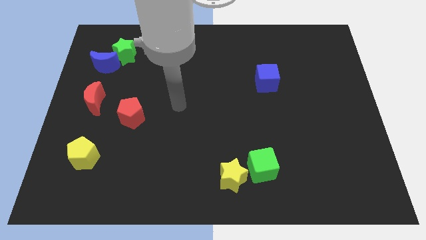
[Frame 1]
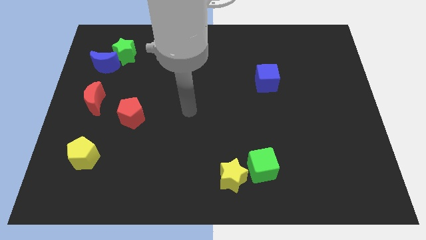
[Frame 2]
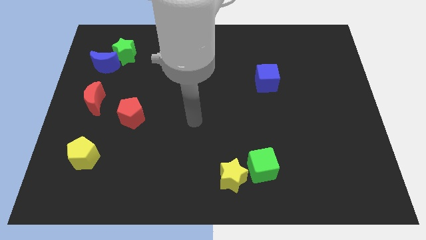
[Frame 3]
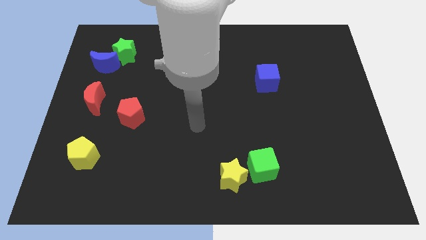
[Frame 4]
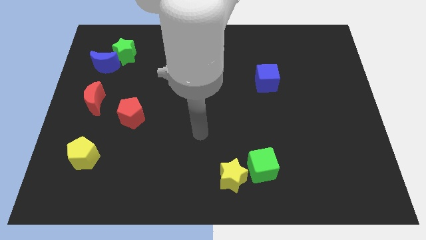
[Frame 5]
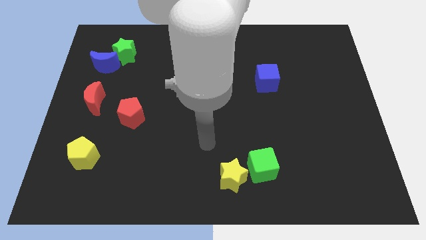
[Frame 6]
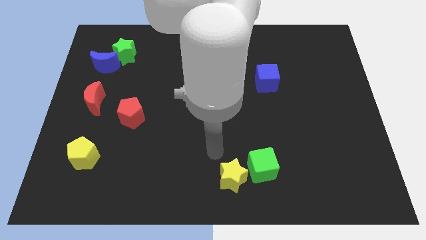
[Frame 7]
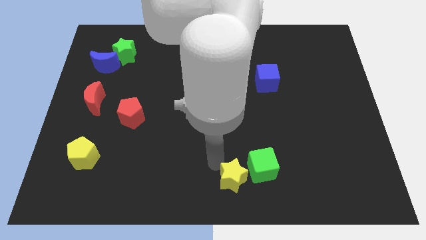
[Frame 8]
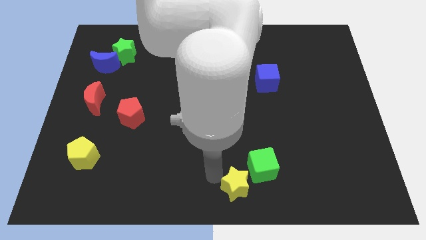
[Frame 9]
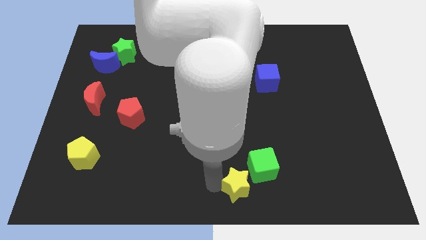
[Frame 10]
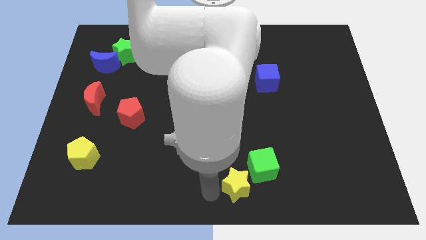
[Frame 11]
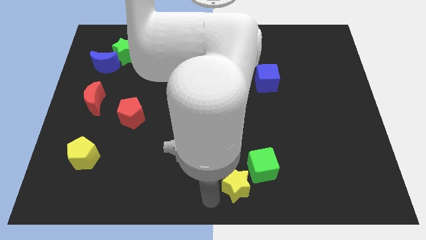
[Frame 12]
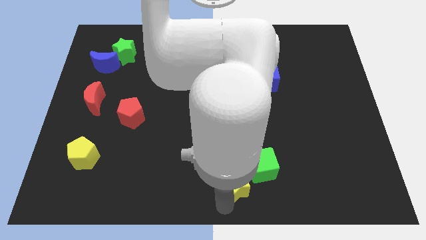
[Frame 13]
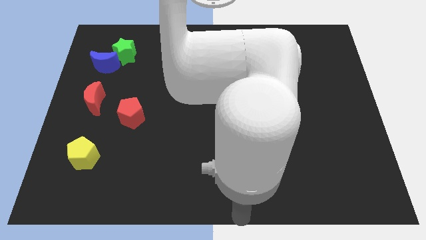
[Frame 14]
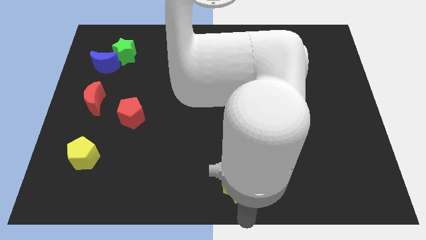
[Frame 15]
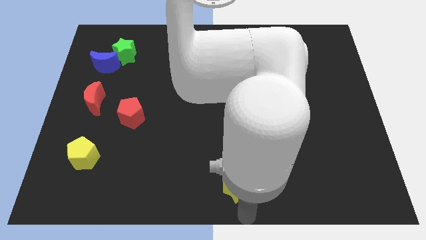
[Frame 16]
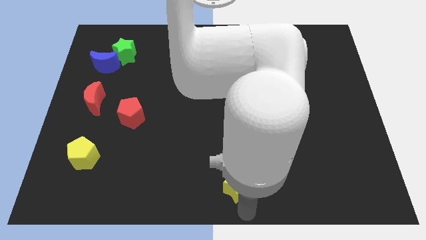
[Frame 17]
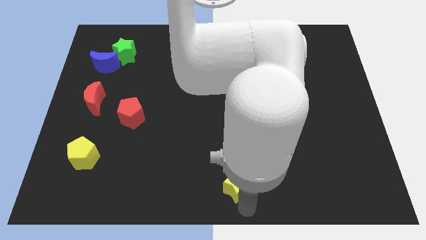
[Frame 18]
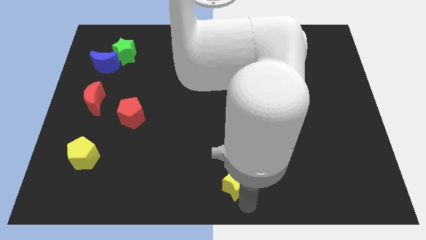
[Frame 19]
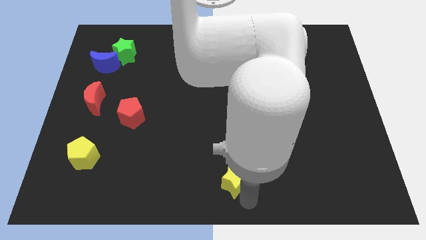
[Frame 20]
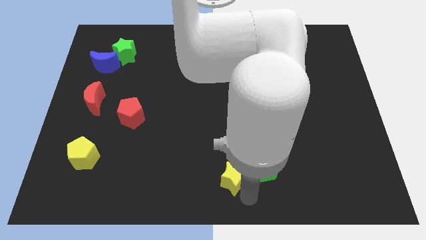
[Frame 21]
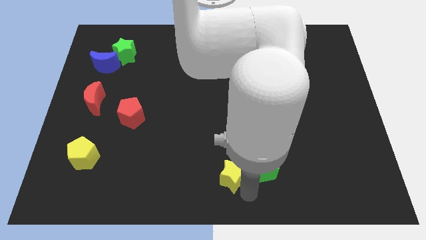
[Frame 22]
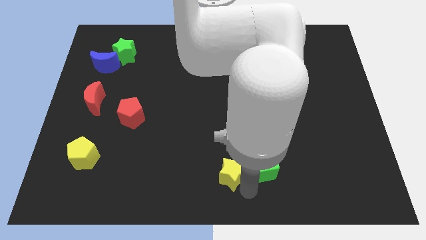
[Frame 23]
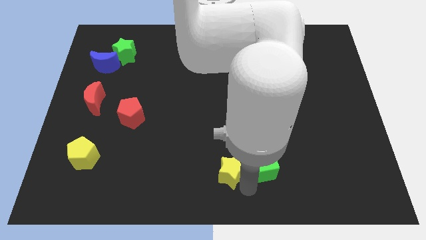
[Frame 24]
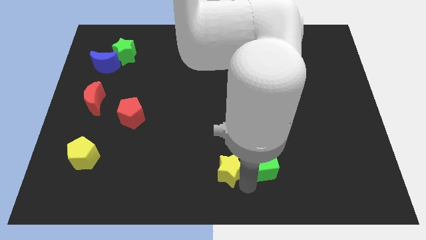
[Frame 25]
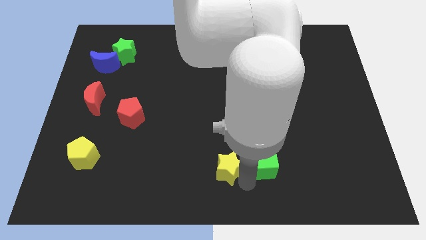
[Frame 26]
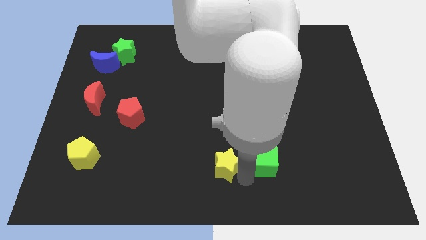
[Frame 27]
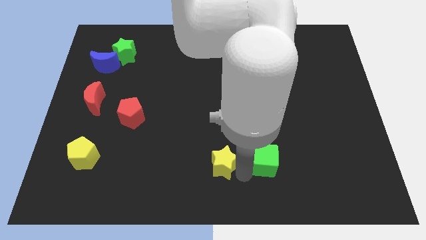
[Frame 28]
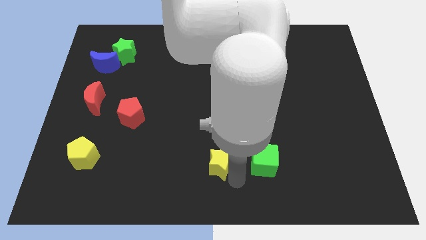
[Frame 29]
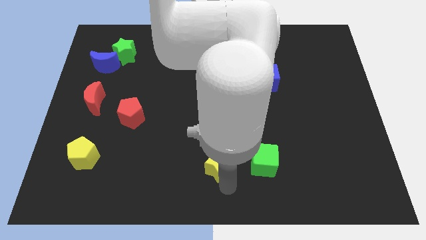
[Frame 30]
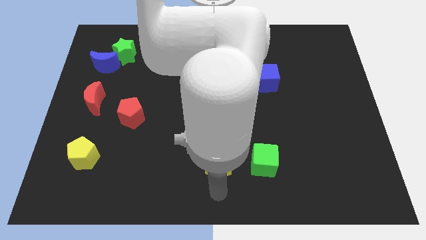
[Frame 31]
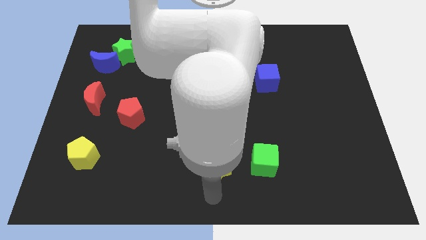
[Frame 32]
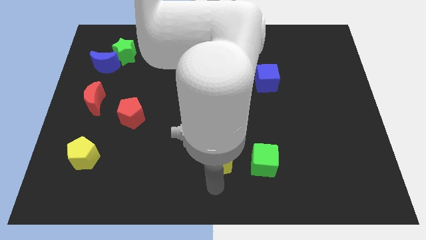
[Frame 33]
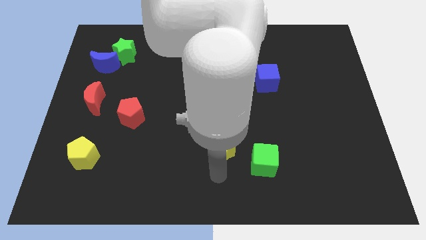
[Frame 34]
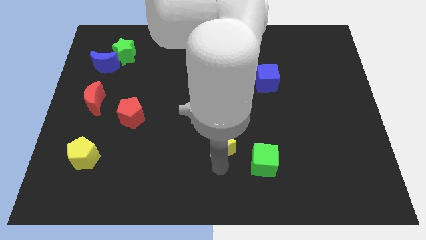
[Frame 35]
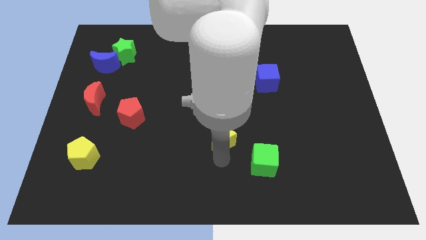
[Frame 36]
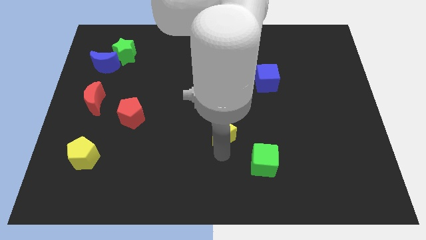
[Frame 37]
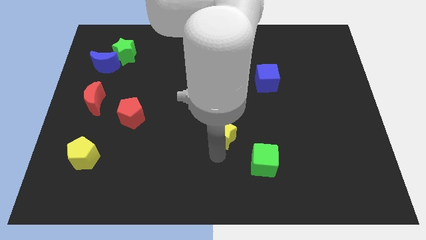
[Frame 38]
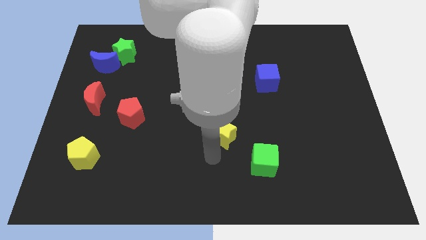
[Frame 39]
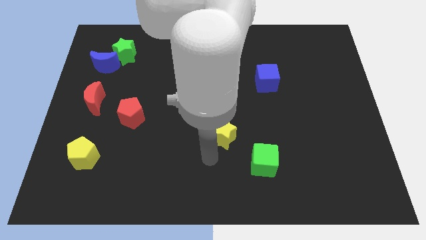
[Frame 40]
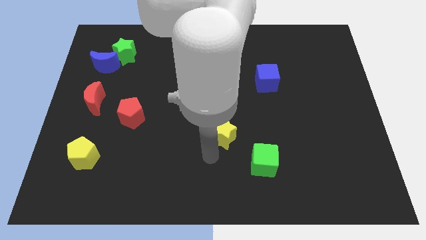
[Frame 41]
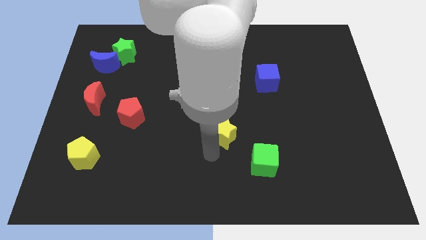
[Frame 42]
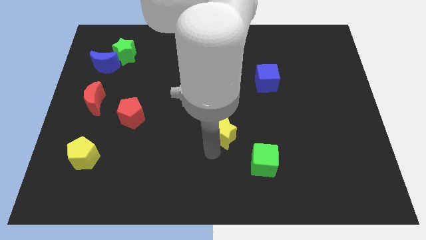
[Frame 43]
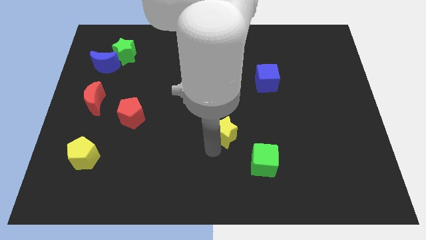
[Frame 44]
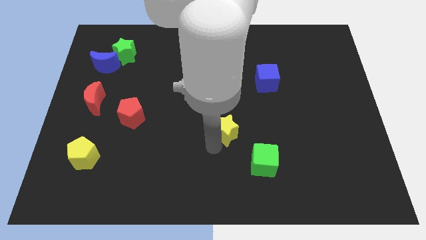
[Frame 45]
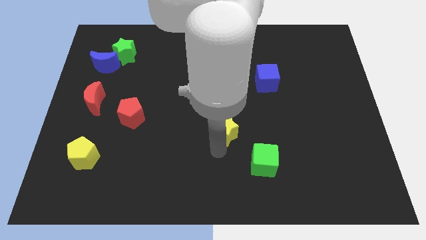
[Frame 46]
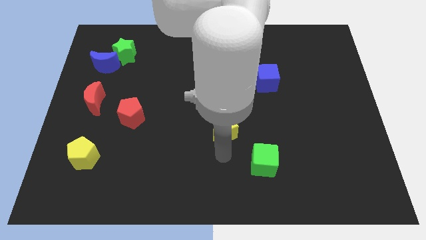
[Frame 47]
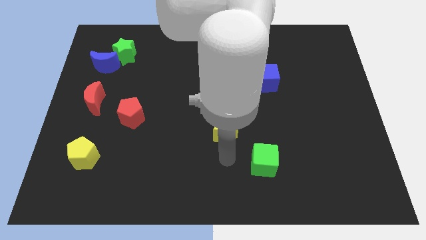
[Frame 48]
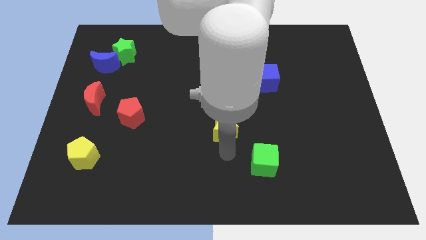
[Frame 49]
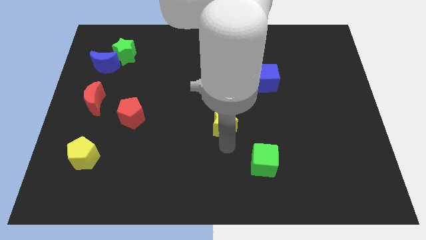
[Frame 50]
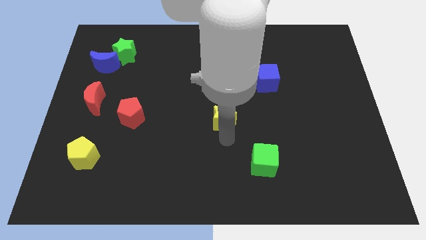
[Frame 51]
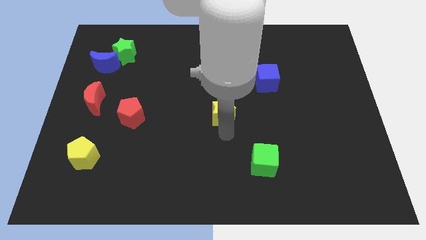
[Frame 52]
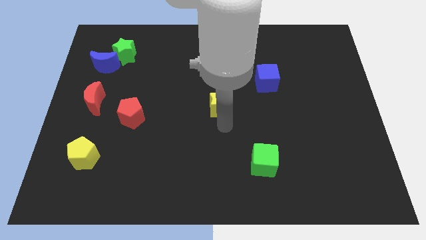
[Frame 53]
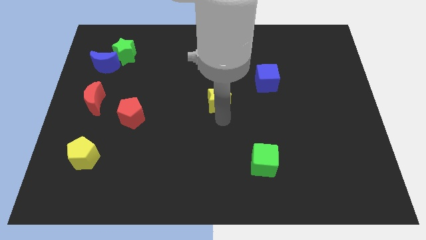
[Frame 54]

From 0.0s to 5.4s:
slide the yellow star upwards

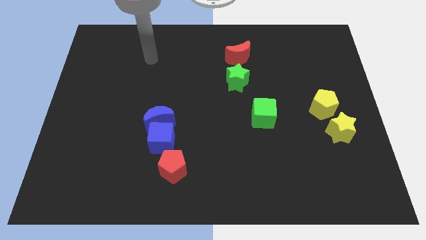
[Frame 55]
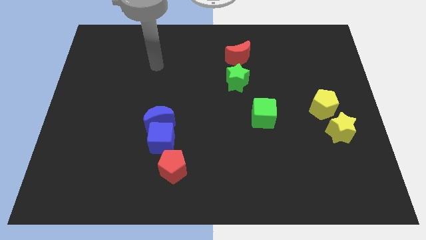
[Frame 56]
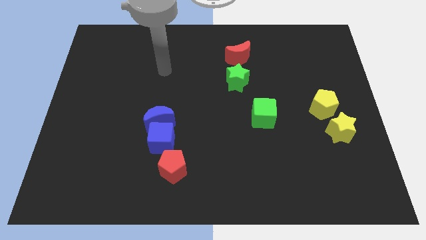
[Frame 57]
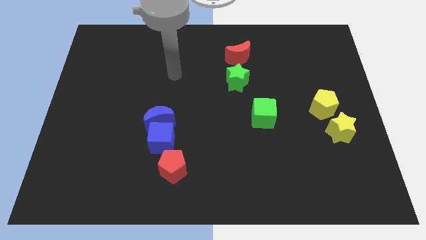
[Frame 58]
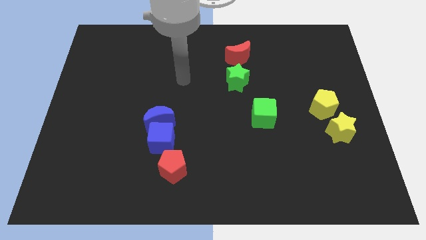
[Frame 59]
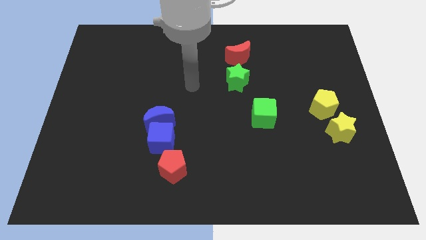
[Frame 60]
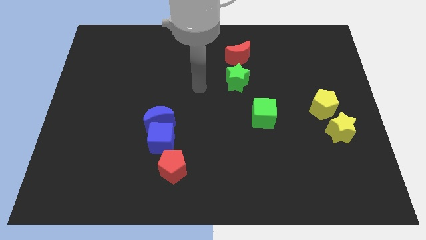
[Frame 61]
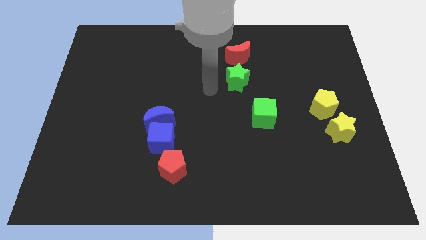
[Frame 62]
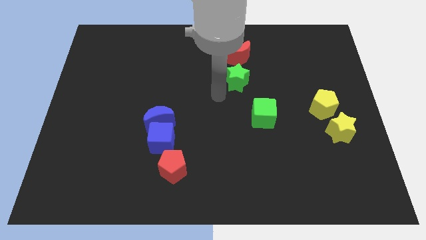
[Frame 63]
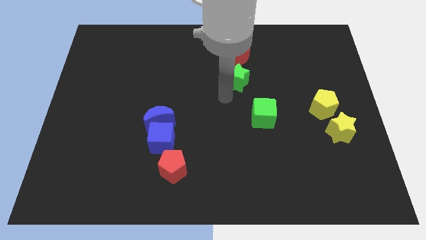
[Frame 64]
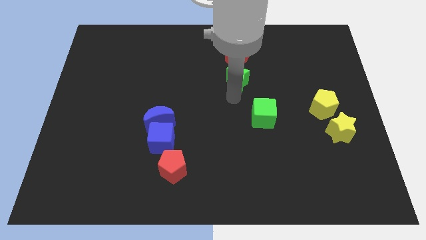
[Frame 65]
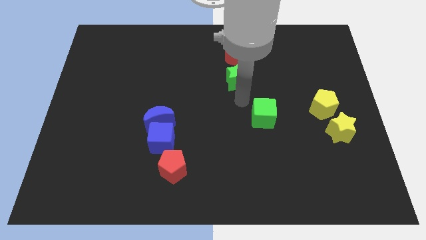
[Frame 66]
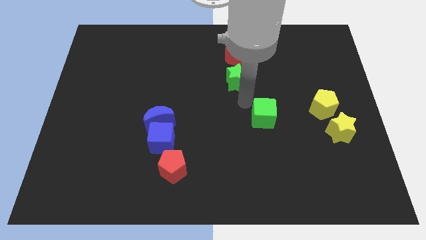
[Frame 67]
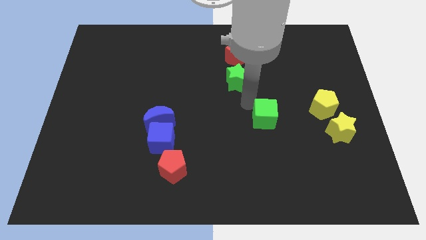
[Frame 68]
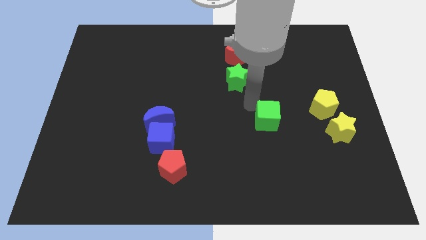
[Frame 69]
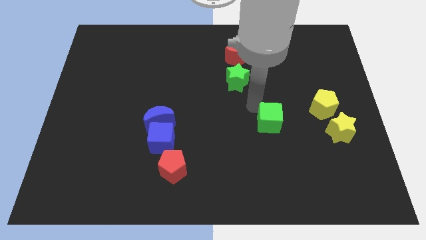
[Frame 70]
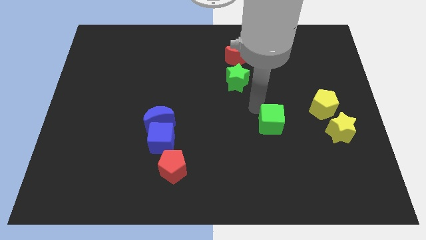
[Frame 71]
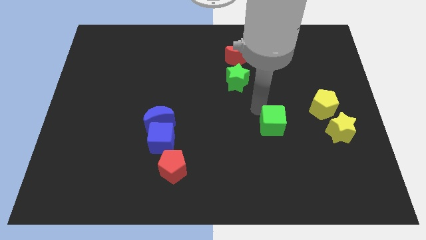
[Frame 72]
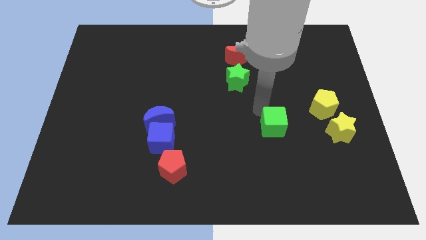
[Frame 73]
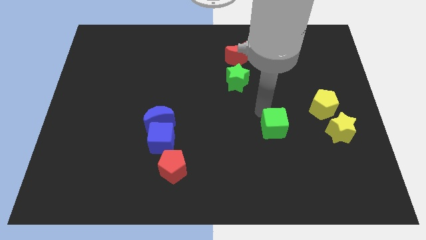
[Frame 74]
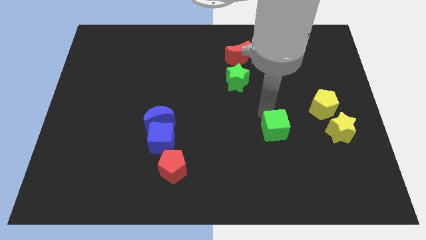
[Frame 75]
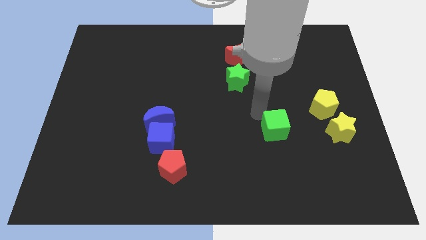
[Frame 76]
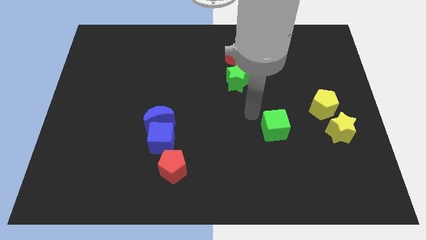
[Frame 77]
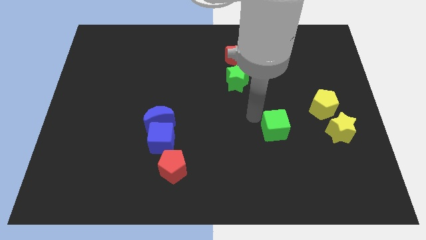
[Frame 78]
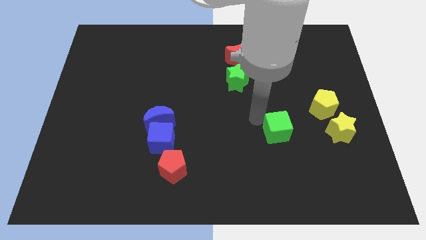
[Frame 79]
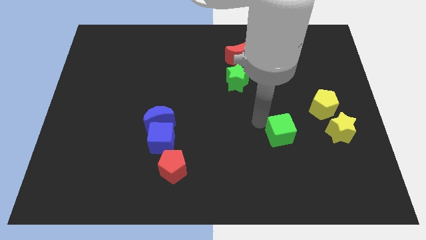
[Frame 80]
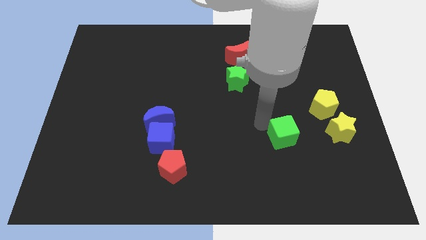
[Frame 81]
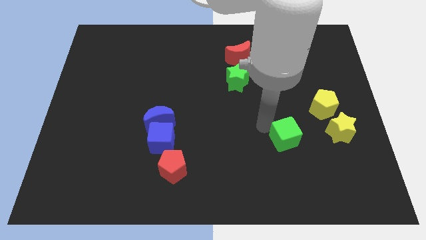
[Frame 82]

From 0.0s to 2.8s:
push the green cube downwards and then to the right slightly
